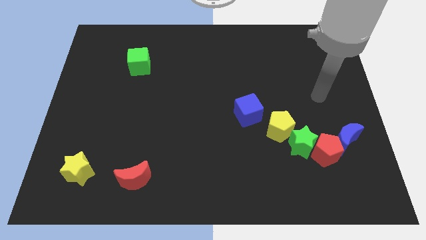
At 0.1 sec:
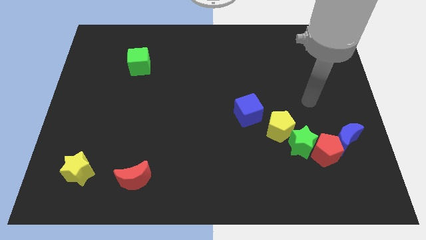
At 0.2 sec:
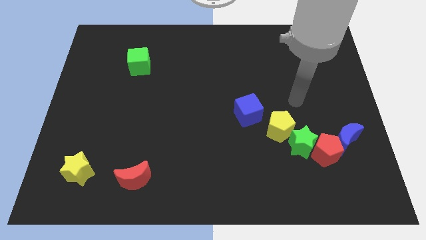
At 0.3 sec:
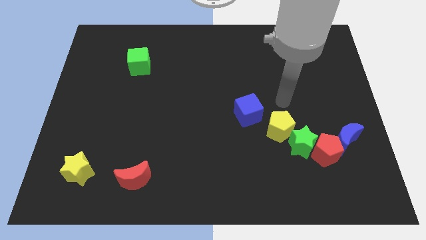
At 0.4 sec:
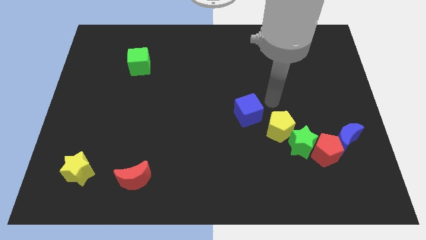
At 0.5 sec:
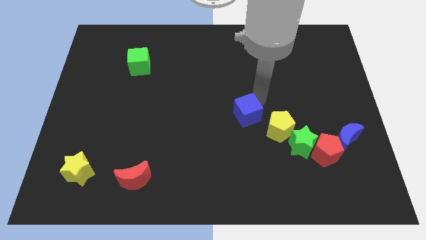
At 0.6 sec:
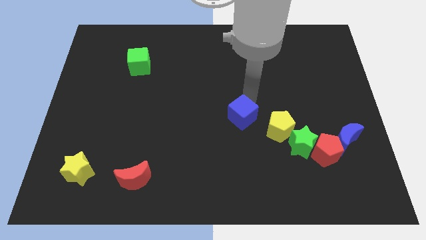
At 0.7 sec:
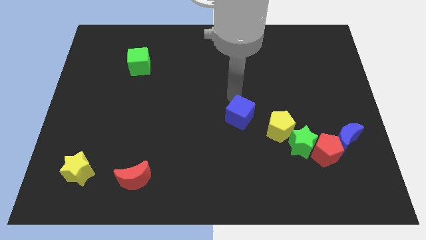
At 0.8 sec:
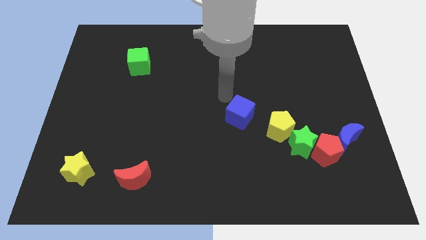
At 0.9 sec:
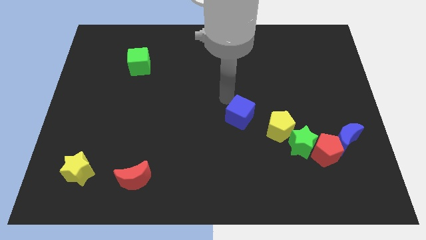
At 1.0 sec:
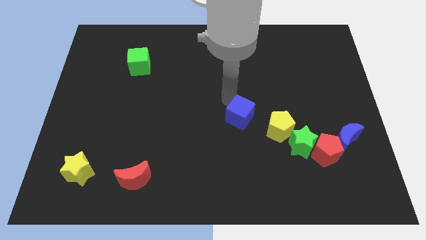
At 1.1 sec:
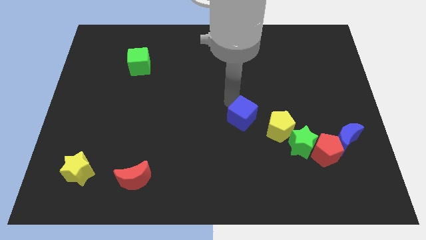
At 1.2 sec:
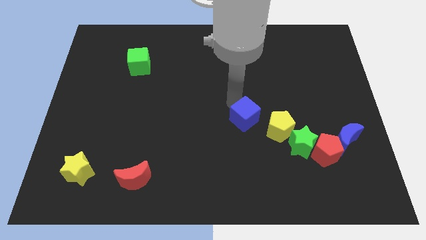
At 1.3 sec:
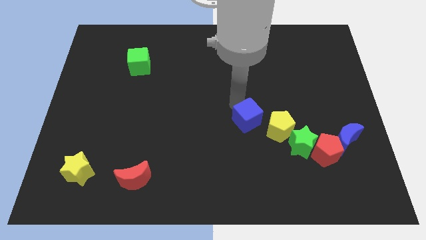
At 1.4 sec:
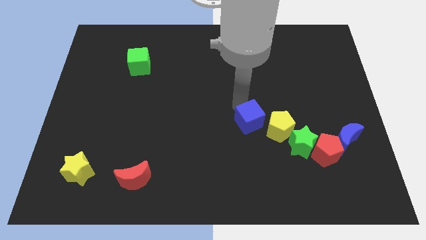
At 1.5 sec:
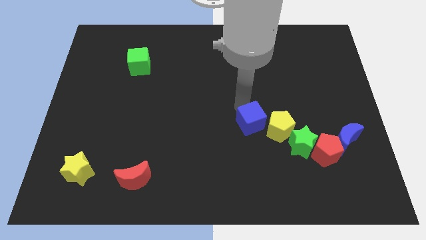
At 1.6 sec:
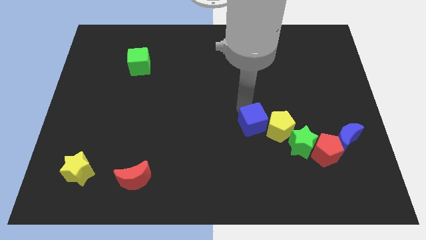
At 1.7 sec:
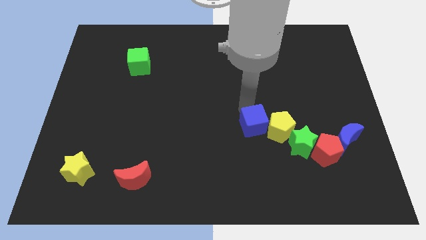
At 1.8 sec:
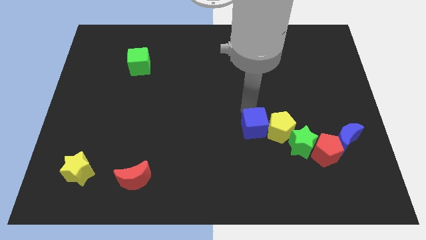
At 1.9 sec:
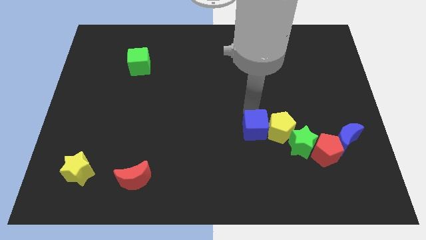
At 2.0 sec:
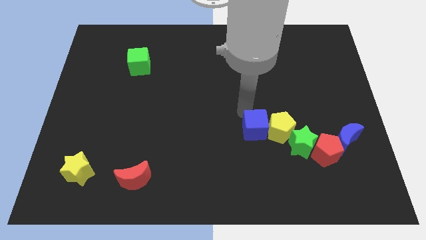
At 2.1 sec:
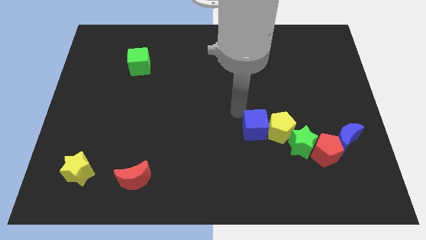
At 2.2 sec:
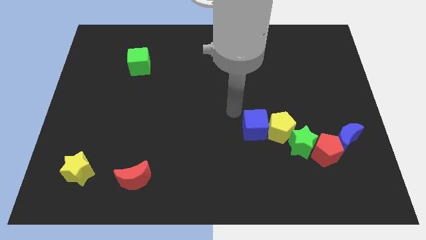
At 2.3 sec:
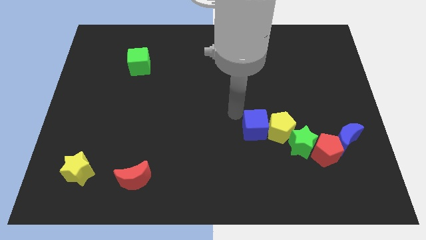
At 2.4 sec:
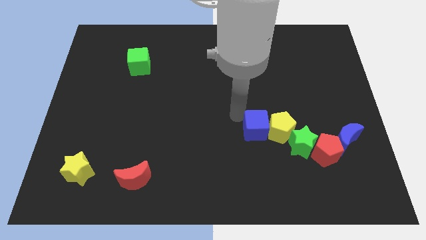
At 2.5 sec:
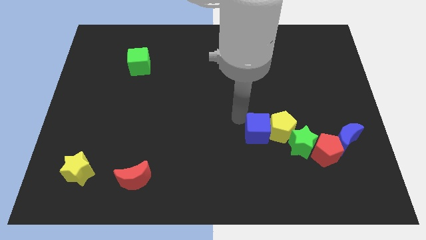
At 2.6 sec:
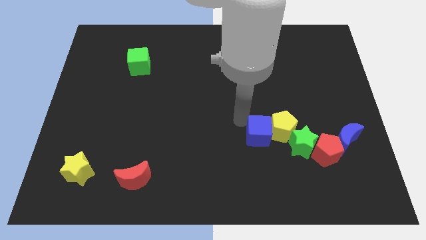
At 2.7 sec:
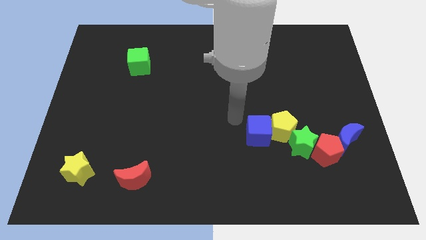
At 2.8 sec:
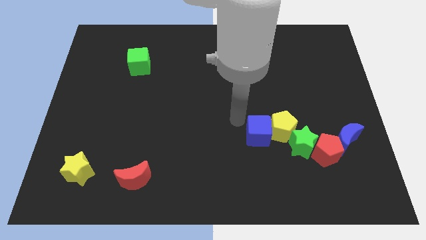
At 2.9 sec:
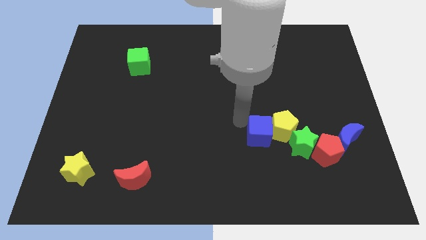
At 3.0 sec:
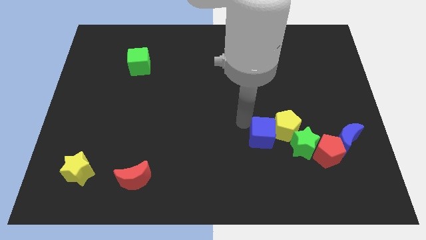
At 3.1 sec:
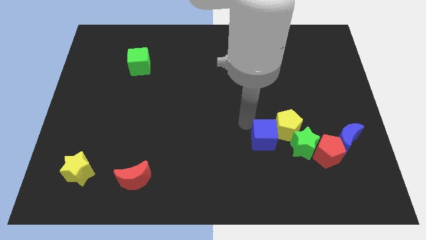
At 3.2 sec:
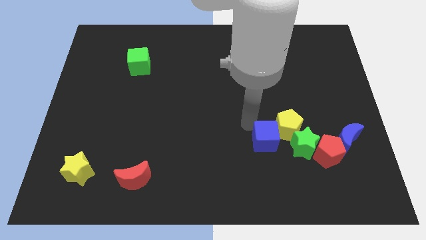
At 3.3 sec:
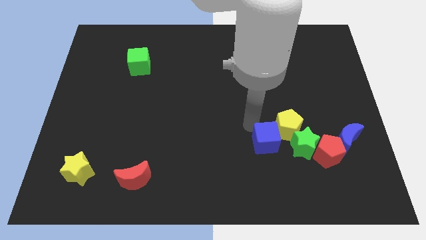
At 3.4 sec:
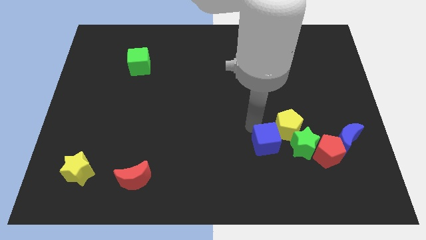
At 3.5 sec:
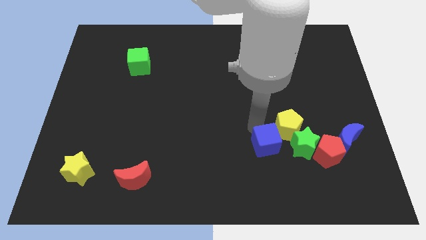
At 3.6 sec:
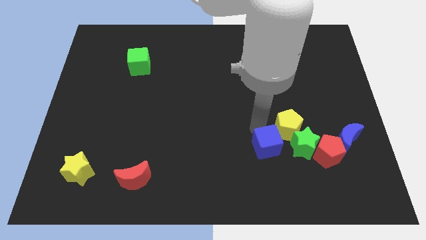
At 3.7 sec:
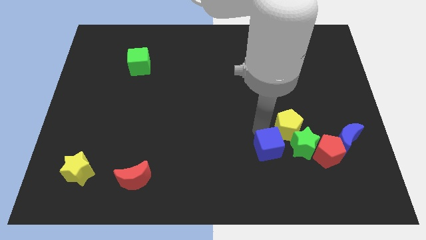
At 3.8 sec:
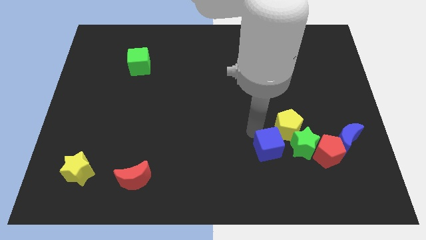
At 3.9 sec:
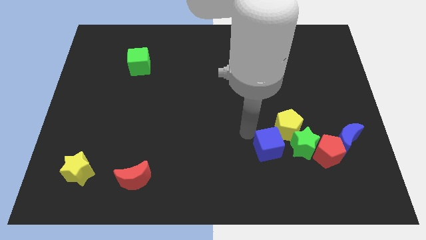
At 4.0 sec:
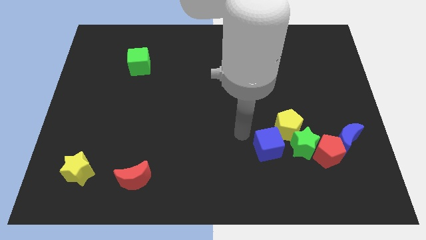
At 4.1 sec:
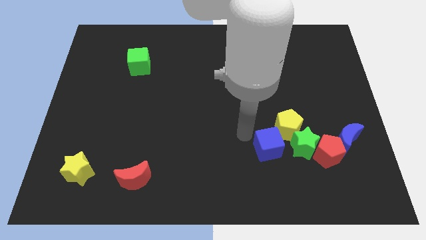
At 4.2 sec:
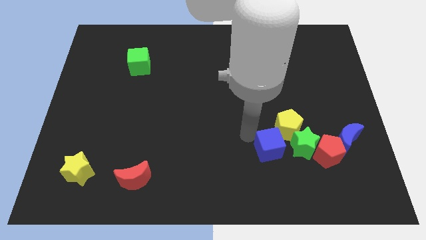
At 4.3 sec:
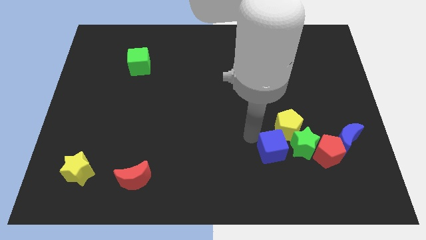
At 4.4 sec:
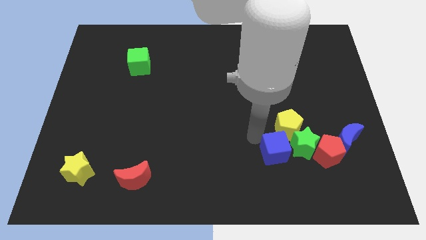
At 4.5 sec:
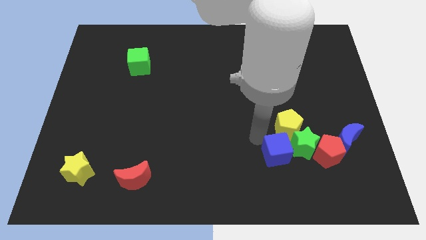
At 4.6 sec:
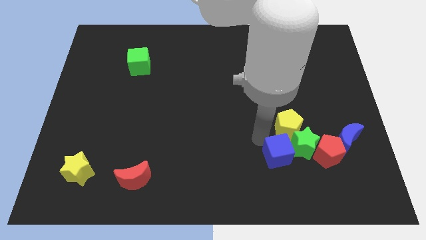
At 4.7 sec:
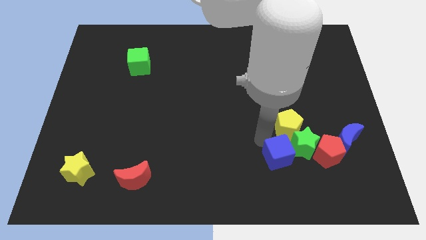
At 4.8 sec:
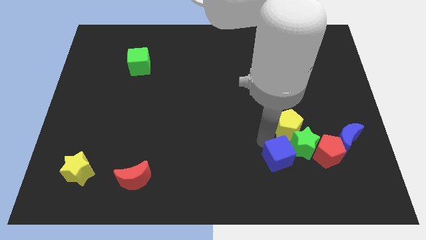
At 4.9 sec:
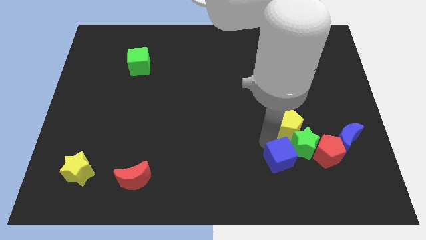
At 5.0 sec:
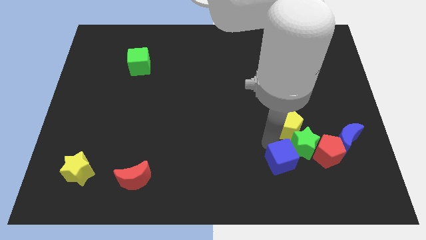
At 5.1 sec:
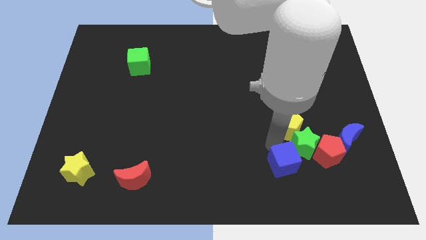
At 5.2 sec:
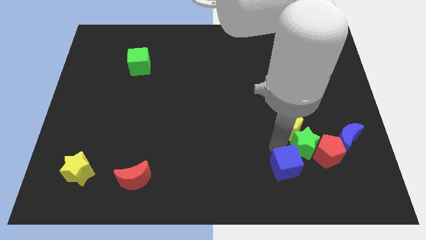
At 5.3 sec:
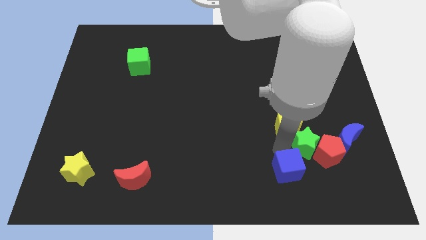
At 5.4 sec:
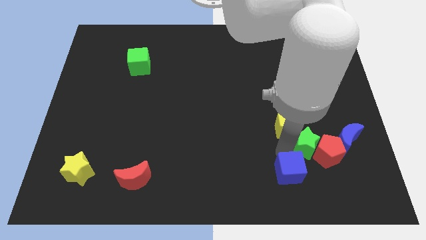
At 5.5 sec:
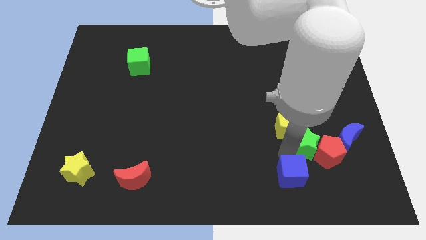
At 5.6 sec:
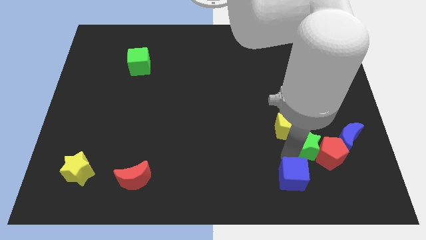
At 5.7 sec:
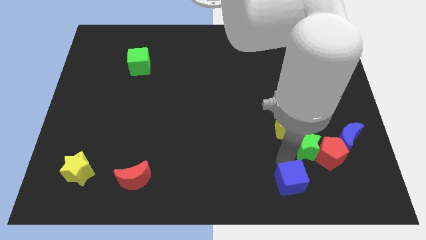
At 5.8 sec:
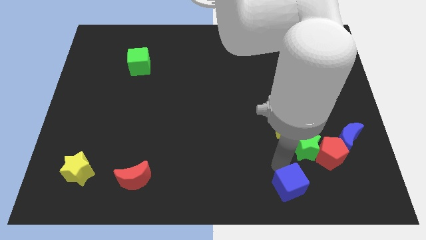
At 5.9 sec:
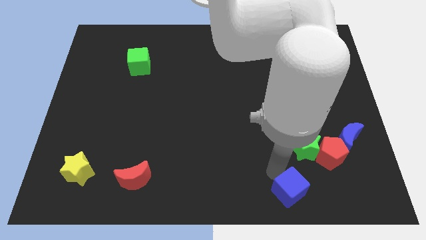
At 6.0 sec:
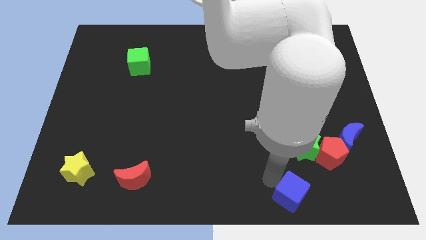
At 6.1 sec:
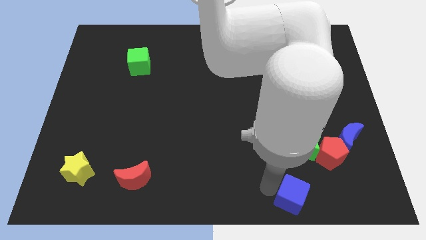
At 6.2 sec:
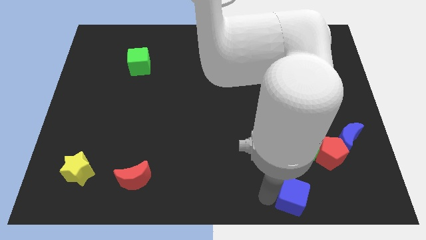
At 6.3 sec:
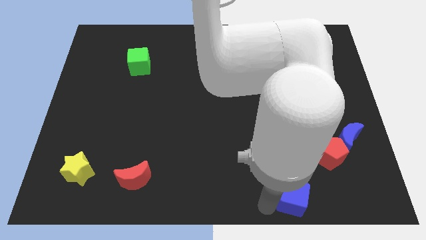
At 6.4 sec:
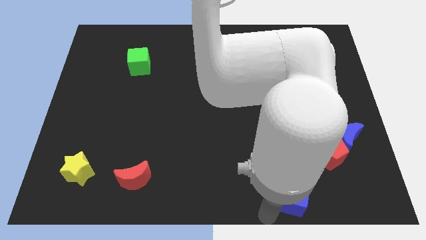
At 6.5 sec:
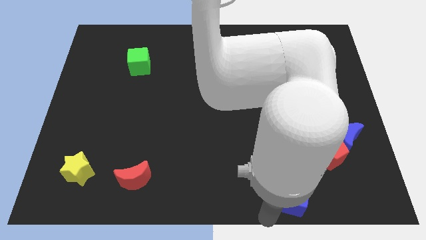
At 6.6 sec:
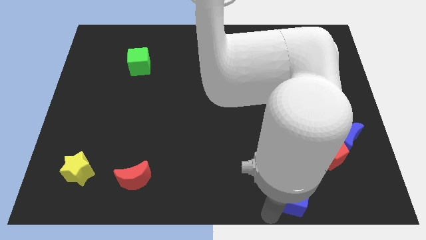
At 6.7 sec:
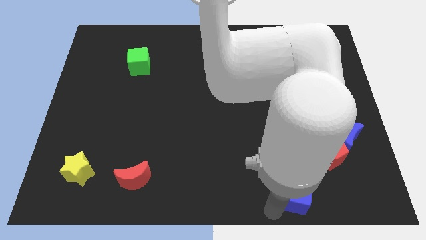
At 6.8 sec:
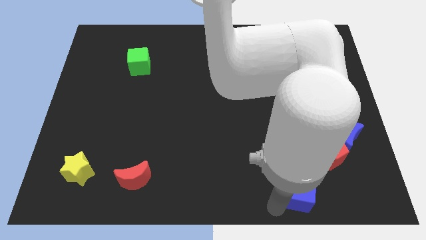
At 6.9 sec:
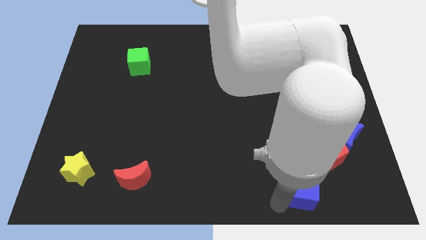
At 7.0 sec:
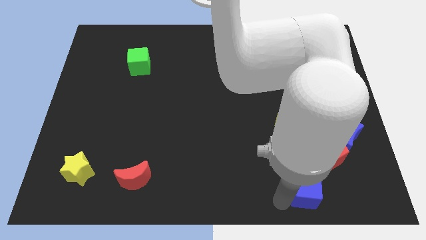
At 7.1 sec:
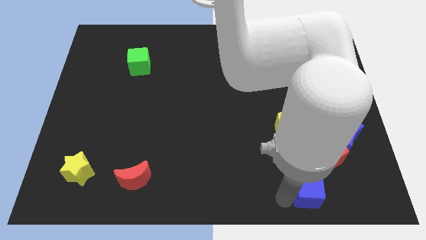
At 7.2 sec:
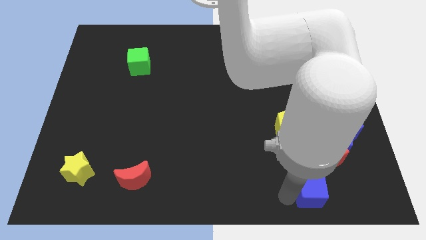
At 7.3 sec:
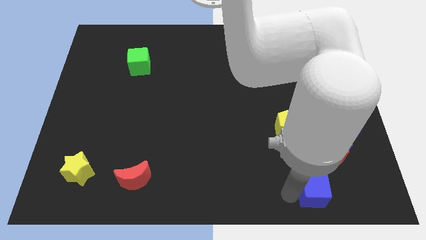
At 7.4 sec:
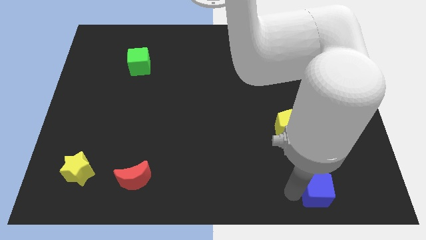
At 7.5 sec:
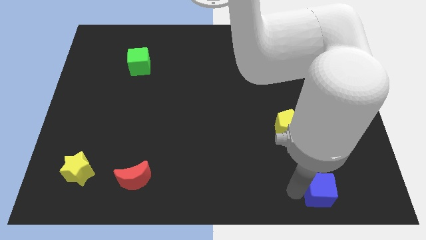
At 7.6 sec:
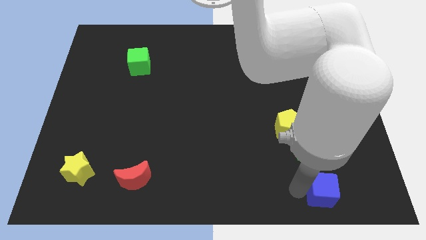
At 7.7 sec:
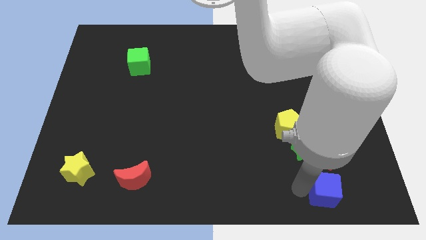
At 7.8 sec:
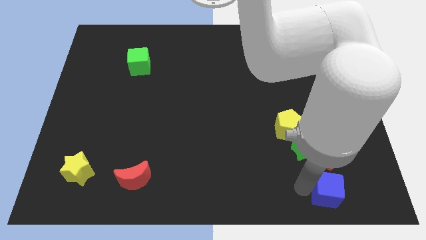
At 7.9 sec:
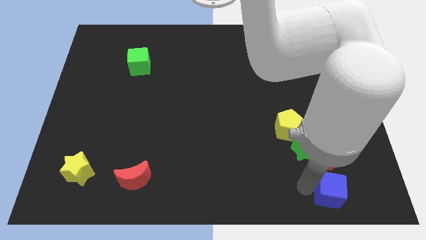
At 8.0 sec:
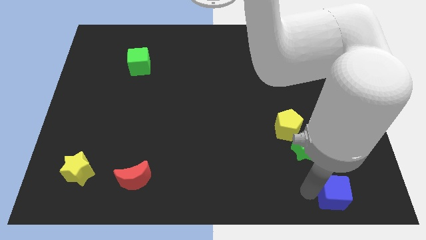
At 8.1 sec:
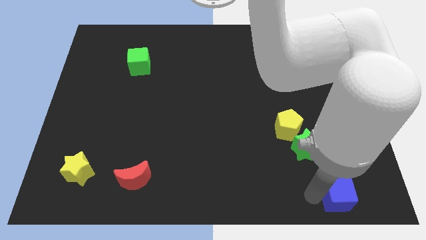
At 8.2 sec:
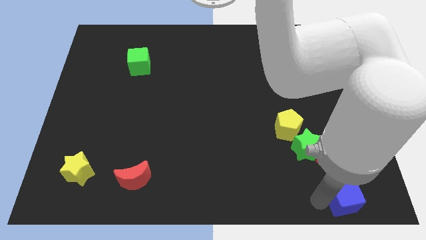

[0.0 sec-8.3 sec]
slide the blue cube to the bottom right corner
